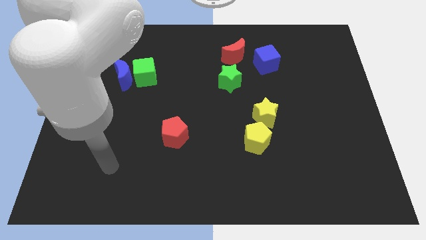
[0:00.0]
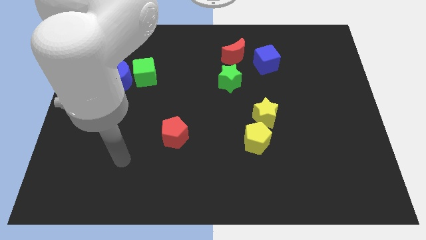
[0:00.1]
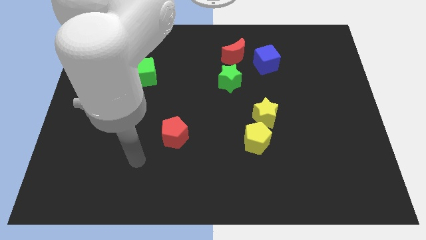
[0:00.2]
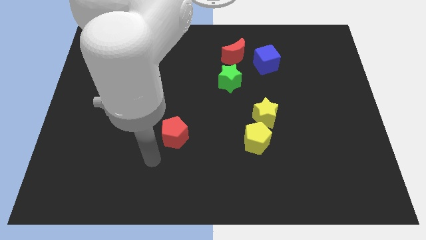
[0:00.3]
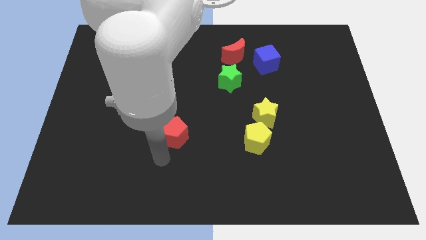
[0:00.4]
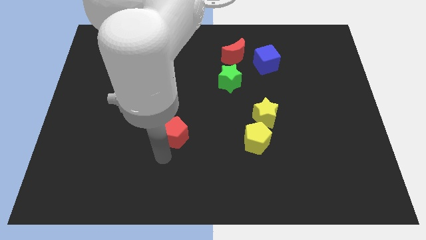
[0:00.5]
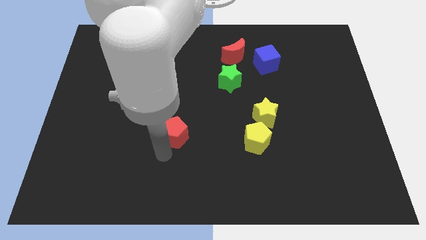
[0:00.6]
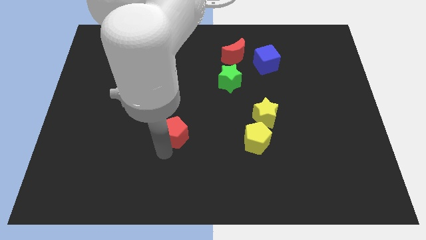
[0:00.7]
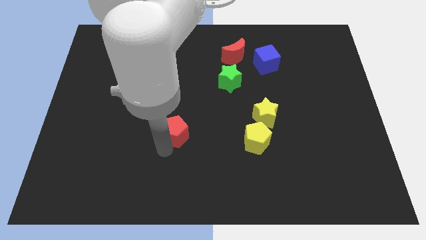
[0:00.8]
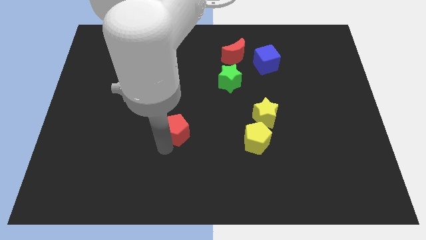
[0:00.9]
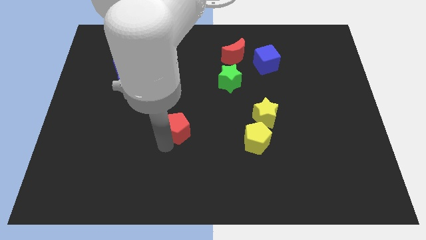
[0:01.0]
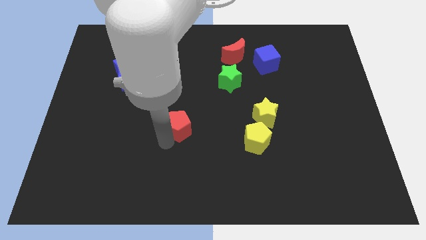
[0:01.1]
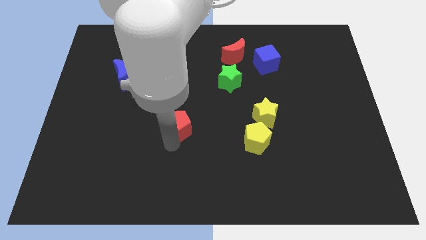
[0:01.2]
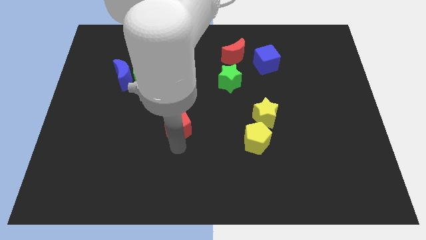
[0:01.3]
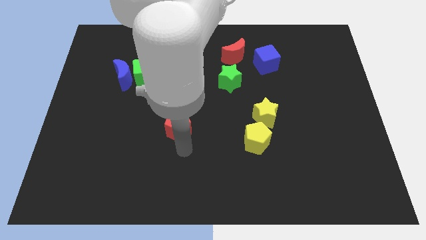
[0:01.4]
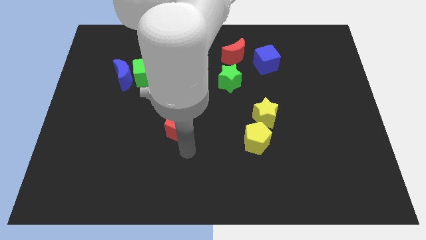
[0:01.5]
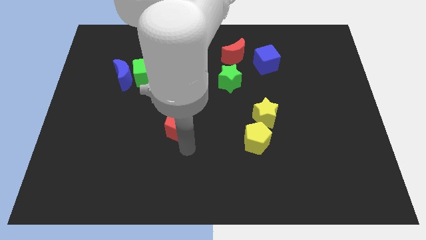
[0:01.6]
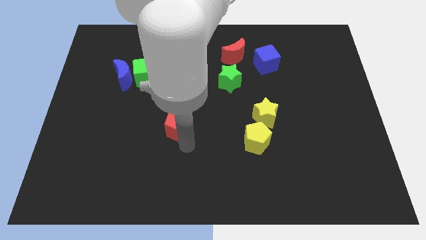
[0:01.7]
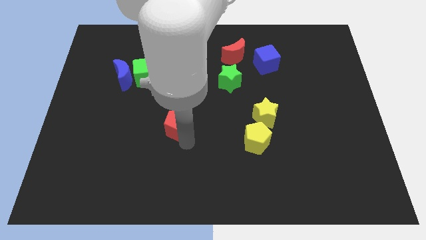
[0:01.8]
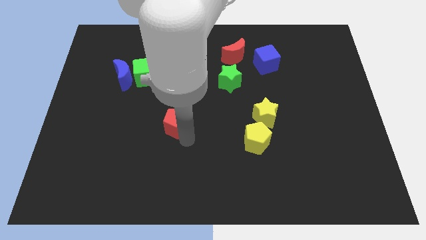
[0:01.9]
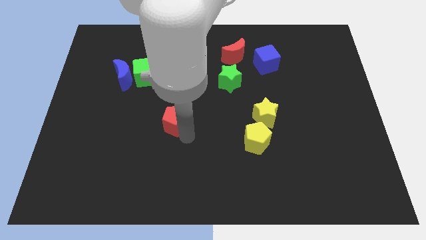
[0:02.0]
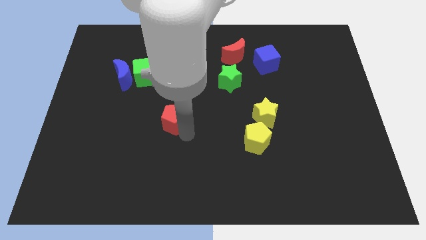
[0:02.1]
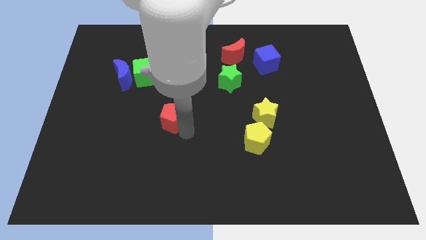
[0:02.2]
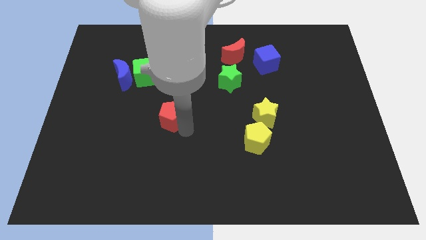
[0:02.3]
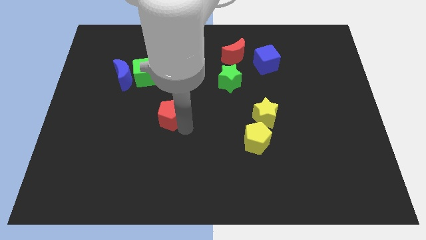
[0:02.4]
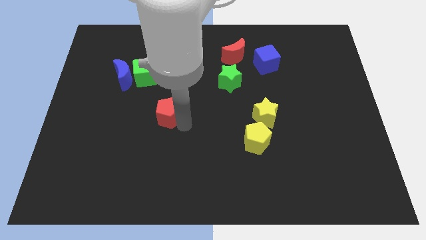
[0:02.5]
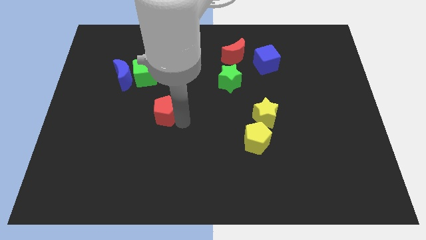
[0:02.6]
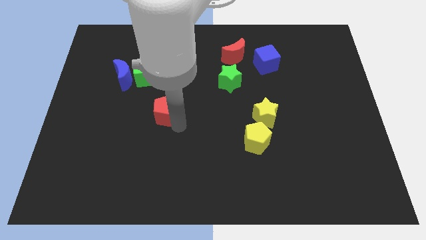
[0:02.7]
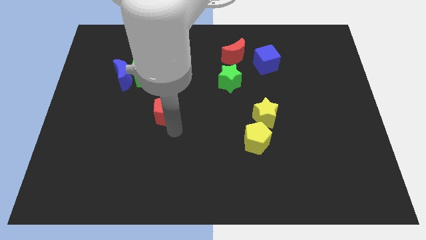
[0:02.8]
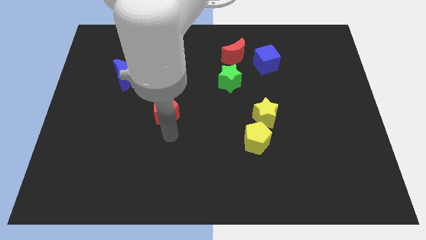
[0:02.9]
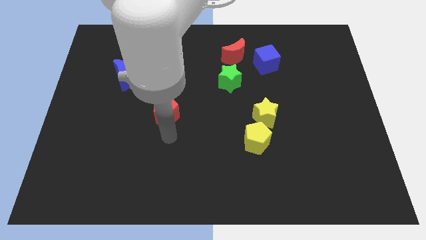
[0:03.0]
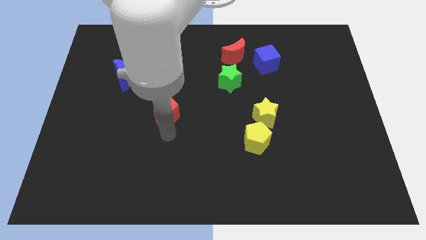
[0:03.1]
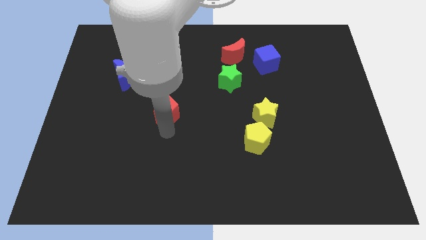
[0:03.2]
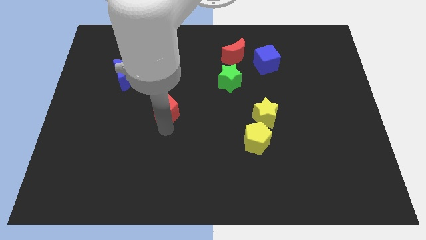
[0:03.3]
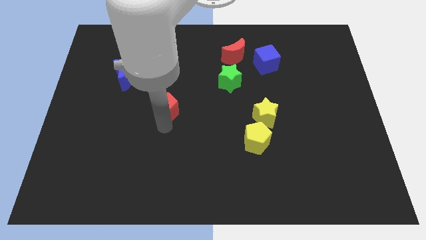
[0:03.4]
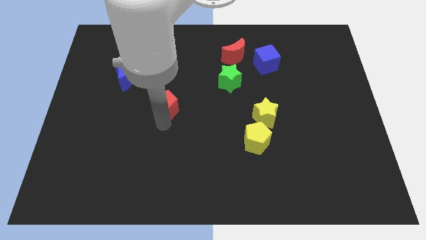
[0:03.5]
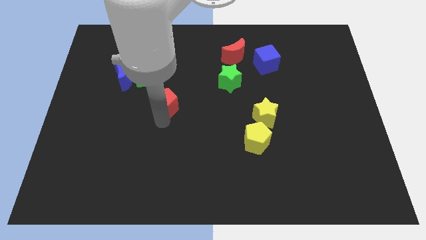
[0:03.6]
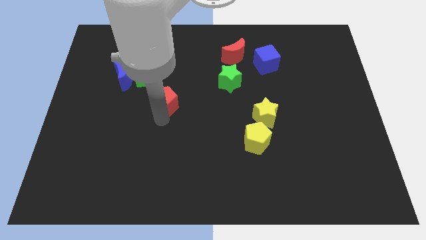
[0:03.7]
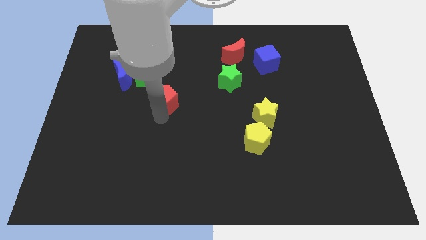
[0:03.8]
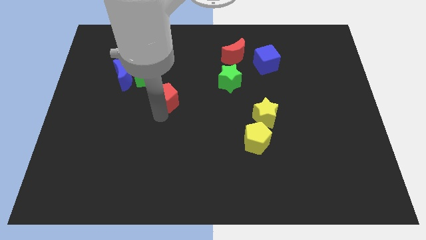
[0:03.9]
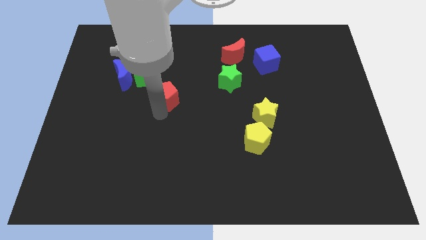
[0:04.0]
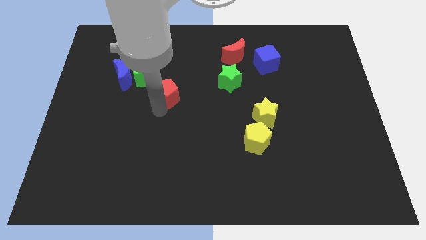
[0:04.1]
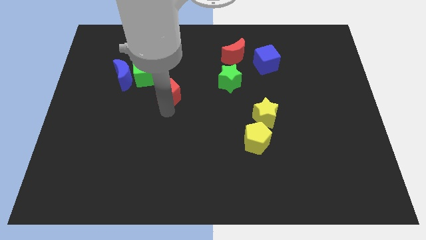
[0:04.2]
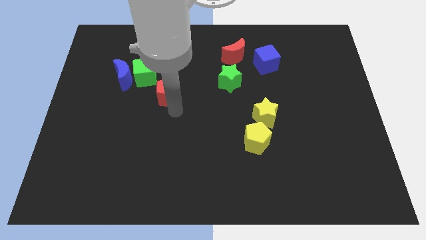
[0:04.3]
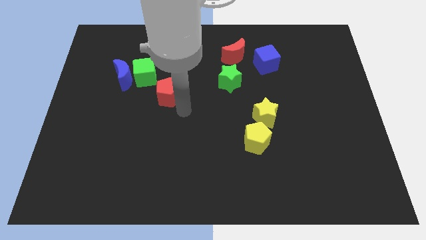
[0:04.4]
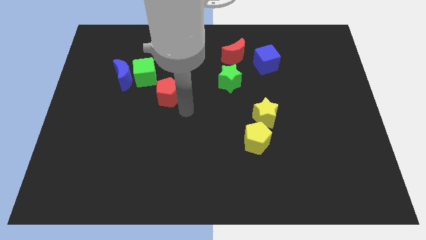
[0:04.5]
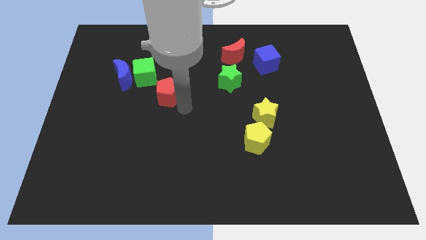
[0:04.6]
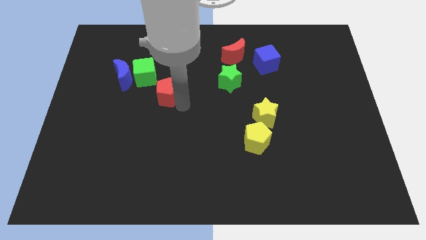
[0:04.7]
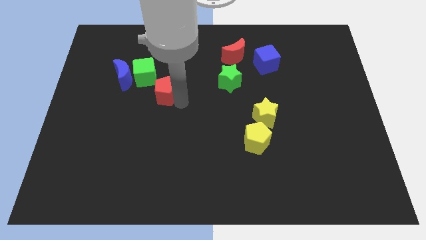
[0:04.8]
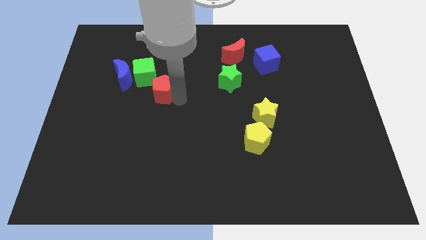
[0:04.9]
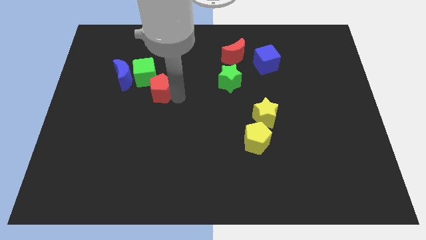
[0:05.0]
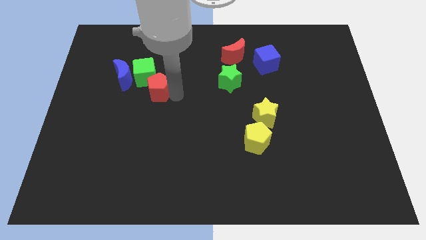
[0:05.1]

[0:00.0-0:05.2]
push the red pentagon close to the green cube

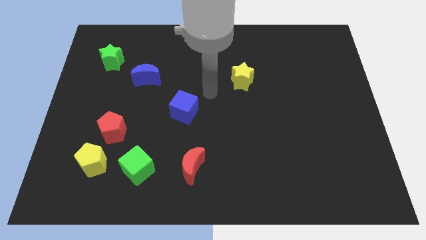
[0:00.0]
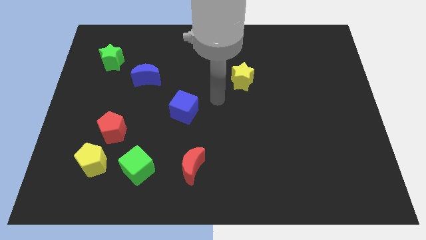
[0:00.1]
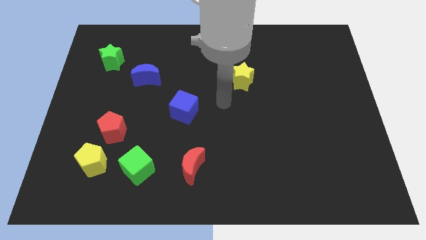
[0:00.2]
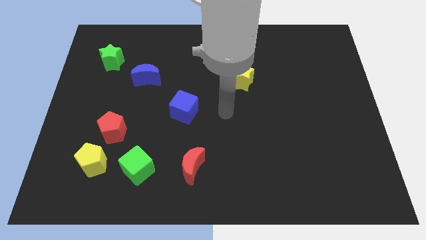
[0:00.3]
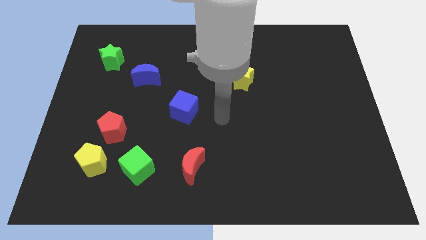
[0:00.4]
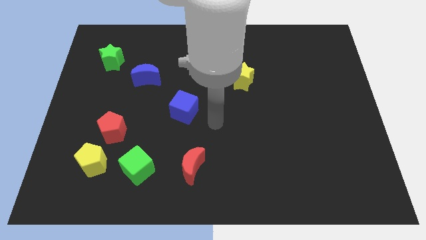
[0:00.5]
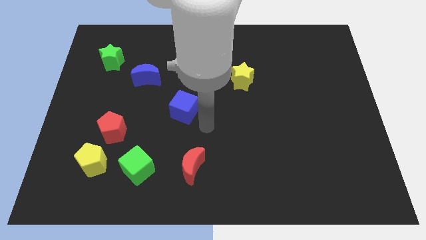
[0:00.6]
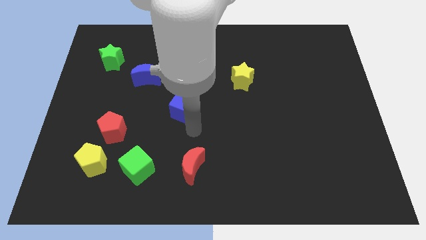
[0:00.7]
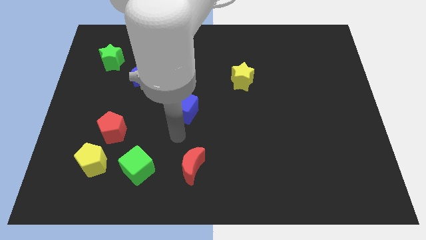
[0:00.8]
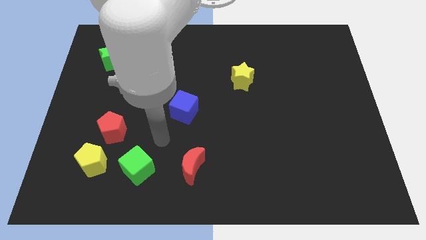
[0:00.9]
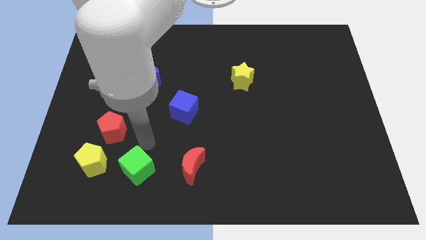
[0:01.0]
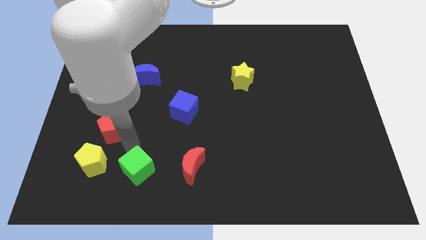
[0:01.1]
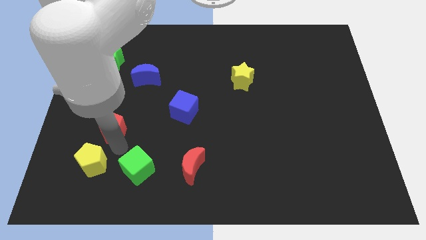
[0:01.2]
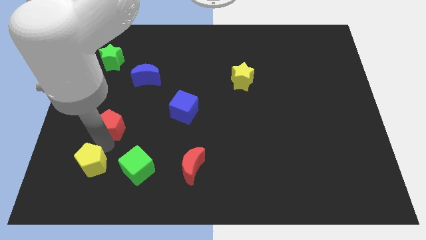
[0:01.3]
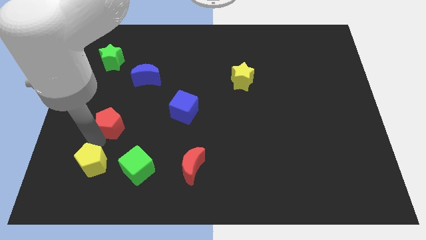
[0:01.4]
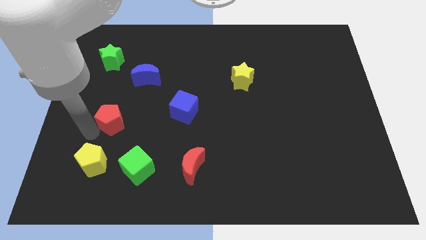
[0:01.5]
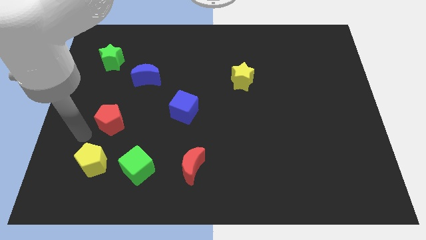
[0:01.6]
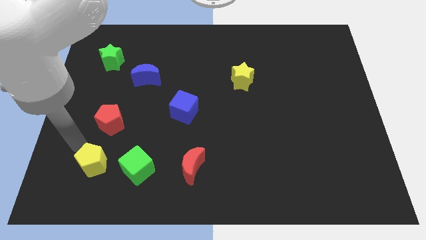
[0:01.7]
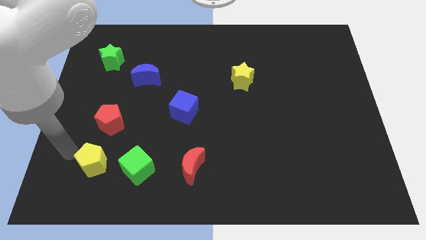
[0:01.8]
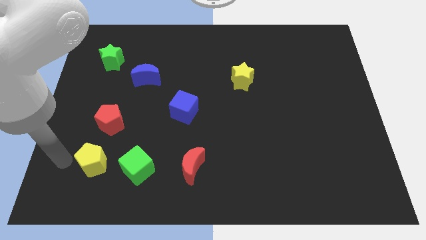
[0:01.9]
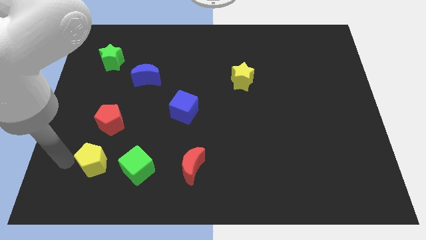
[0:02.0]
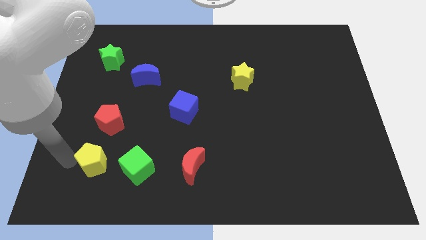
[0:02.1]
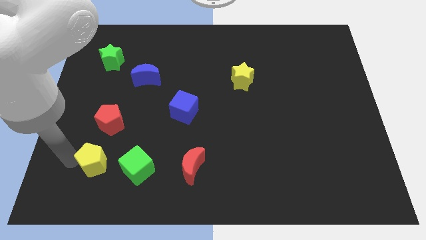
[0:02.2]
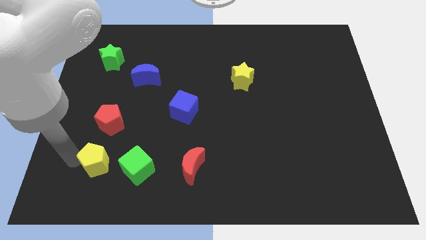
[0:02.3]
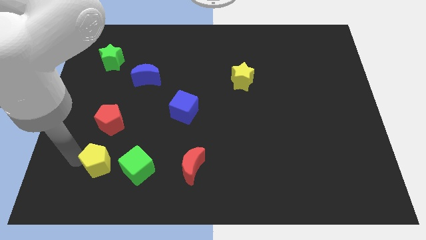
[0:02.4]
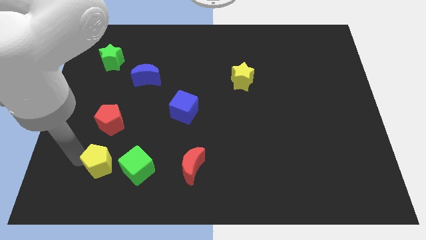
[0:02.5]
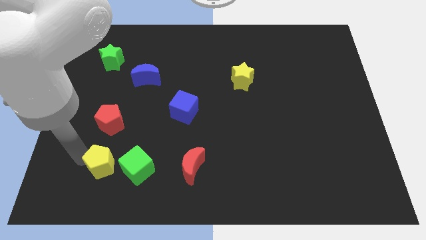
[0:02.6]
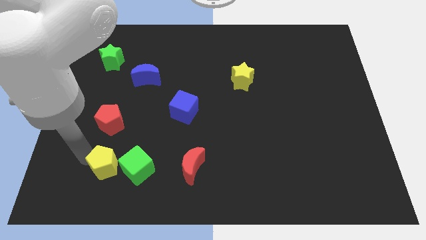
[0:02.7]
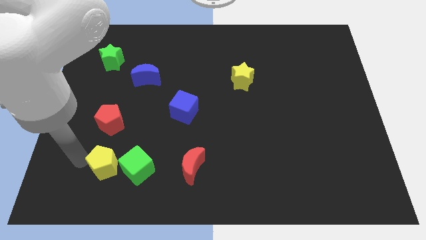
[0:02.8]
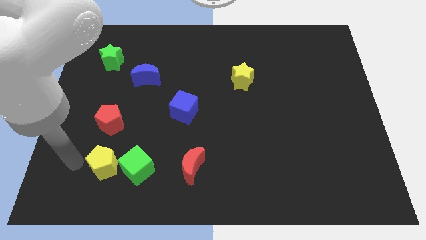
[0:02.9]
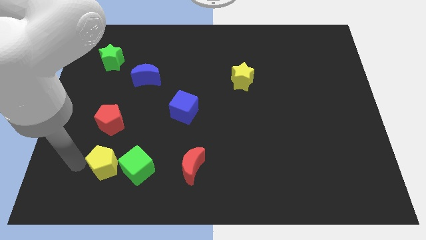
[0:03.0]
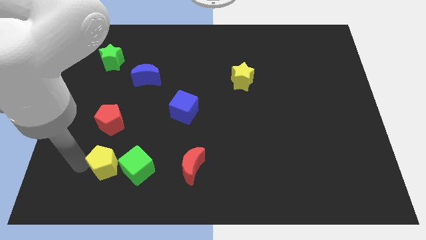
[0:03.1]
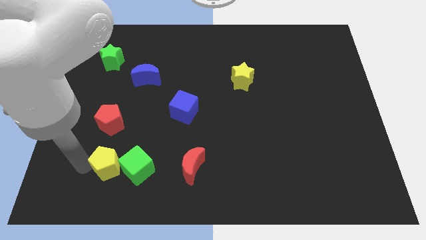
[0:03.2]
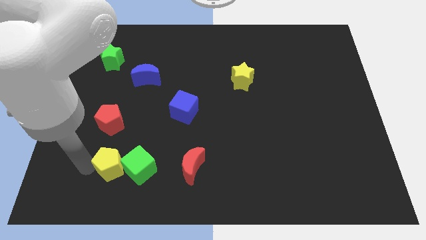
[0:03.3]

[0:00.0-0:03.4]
push the yellow pentagon next to the green cube
